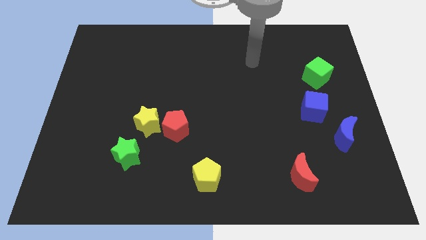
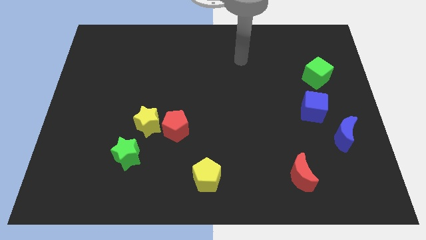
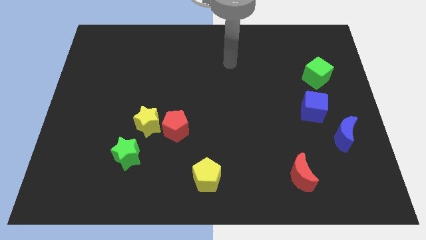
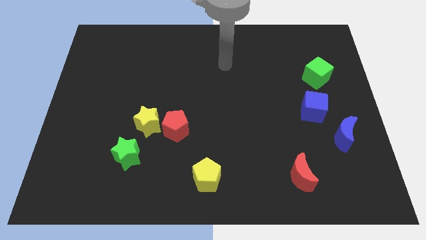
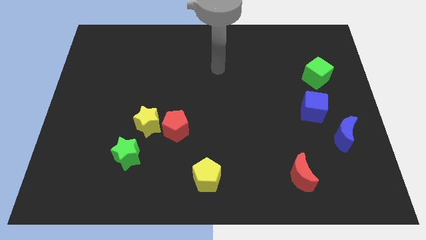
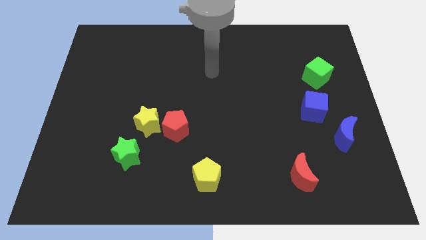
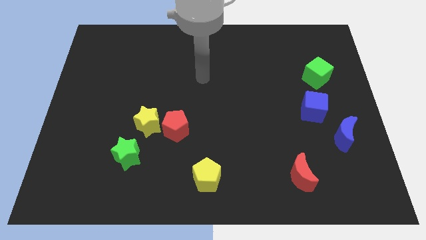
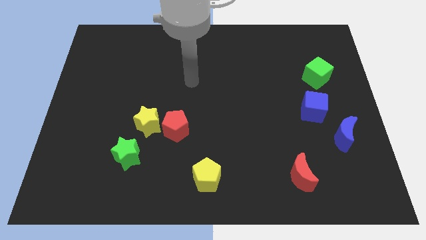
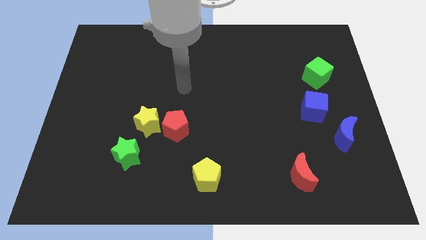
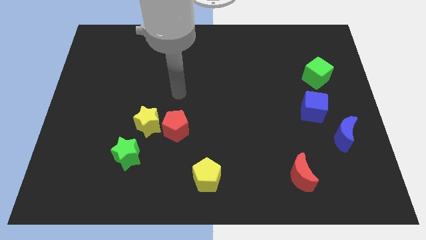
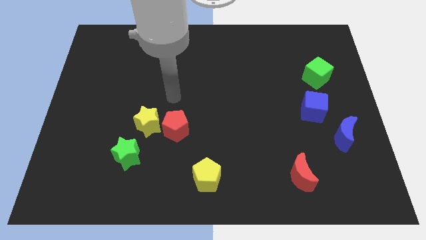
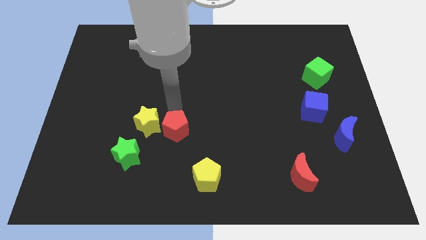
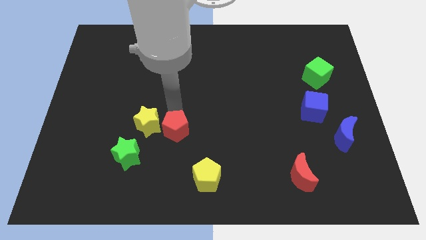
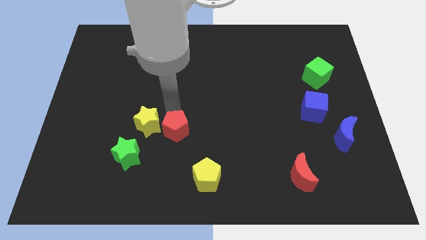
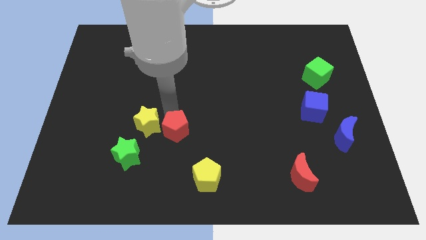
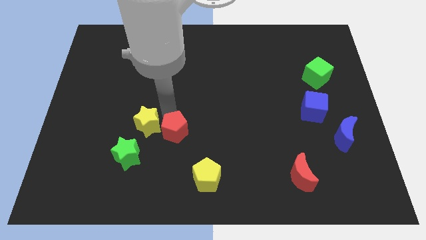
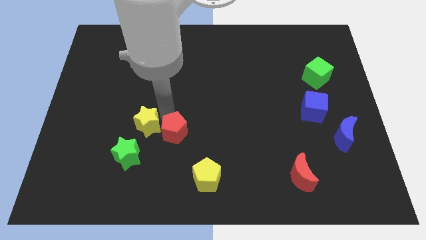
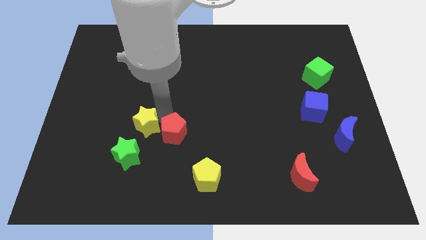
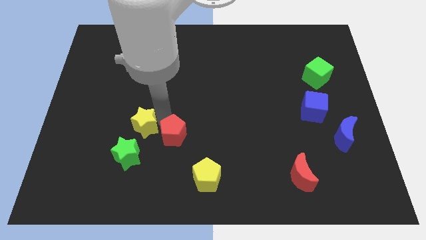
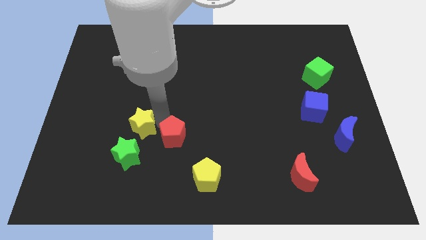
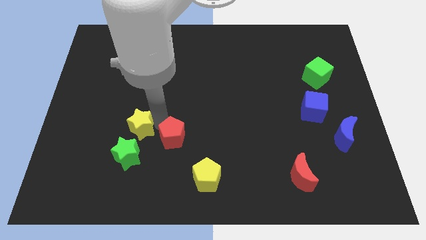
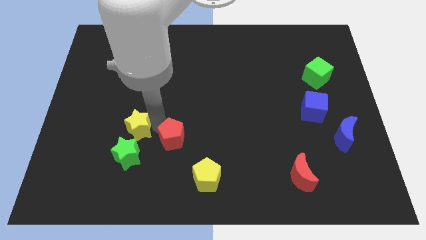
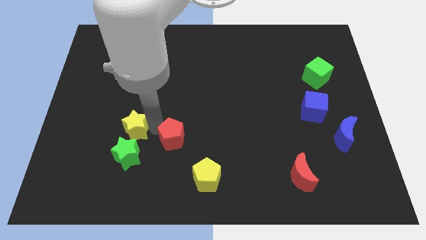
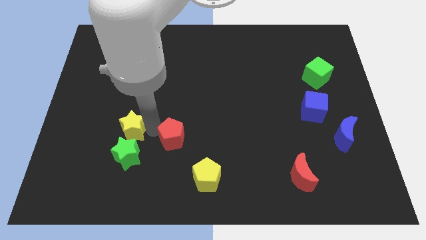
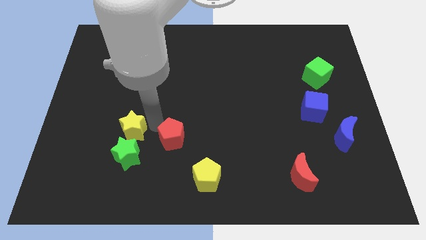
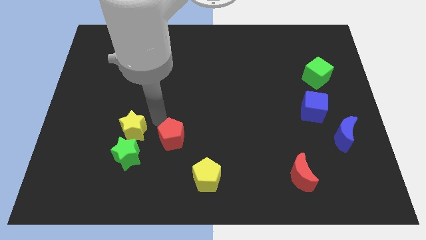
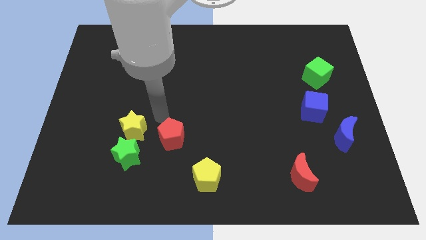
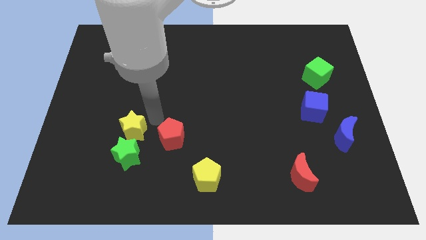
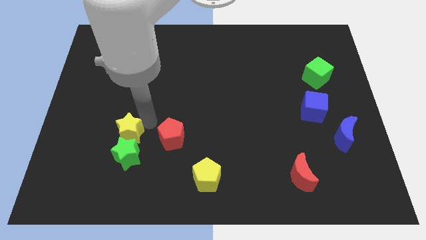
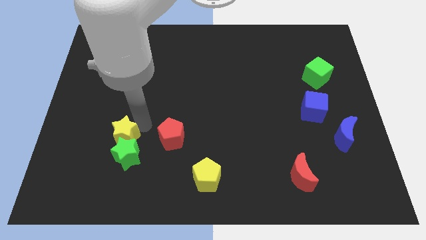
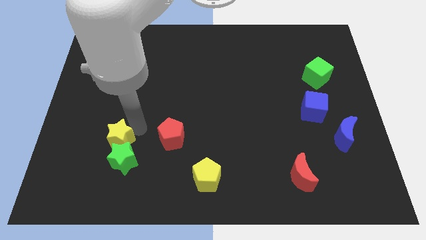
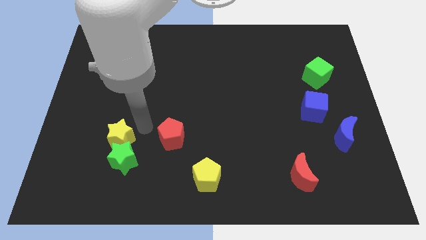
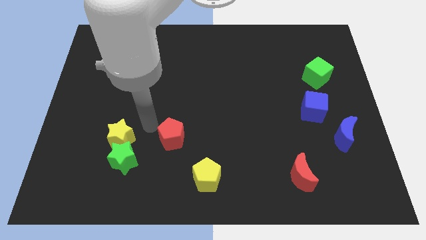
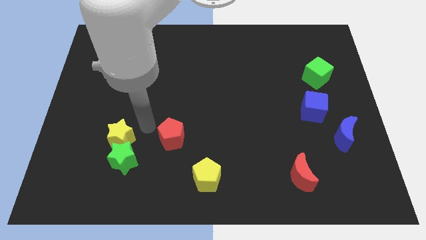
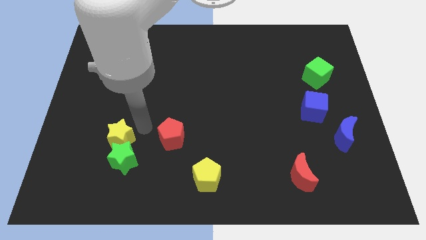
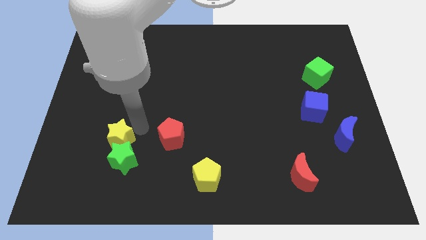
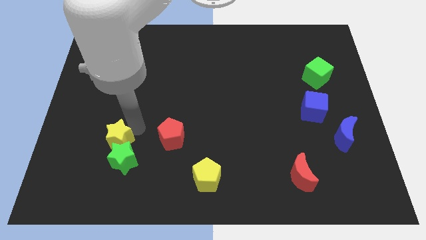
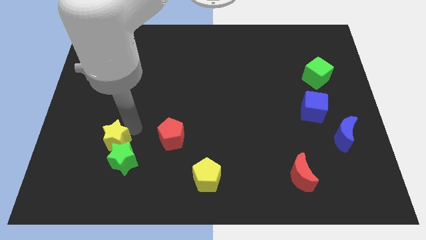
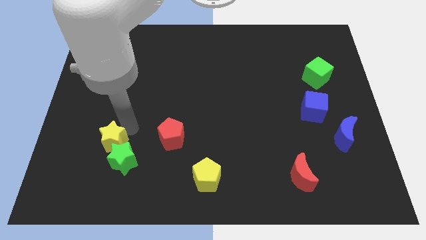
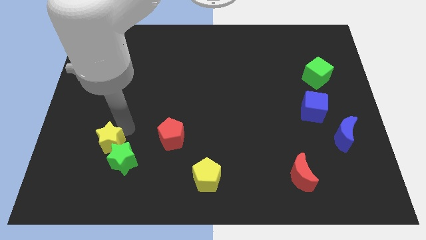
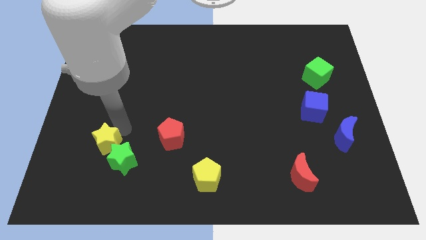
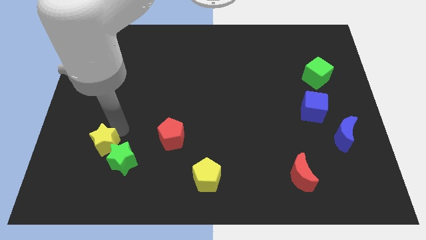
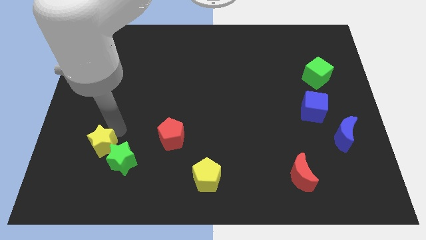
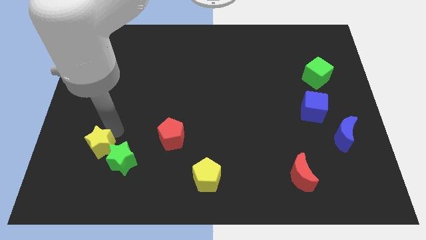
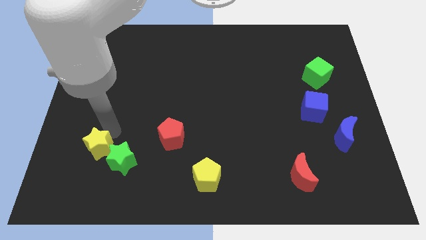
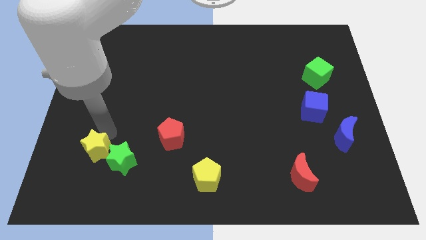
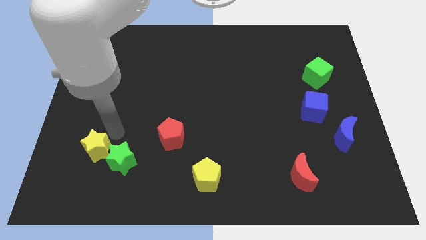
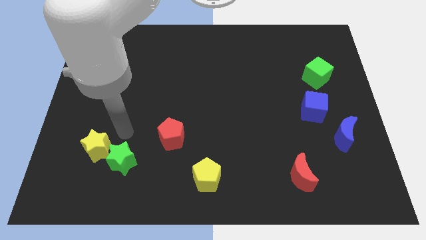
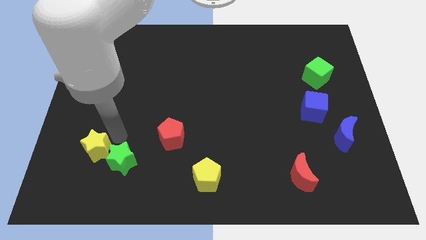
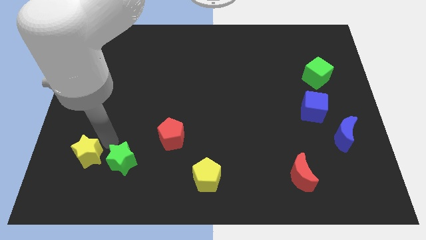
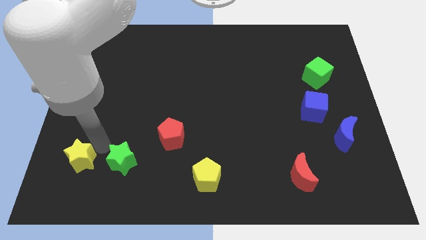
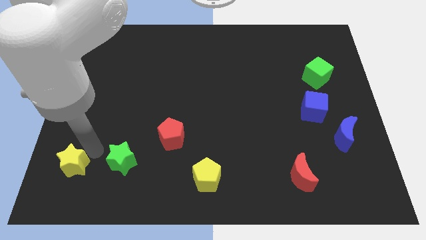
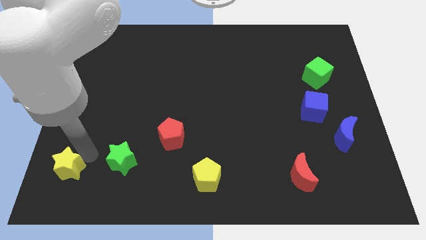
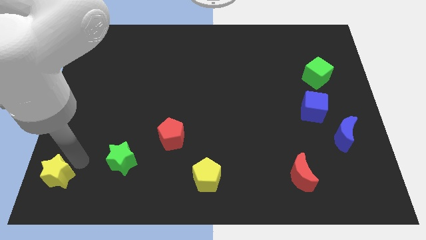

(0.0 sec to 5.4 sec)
slide the yellow star to the bottom left
